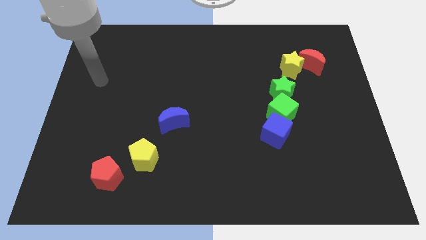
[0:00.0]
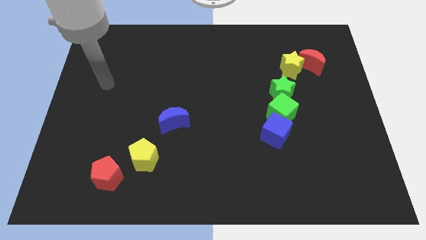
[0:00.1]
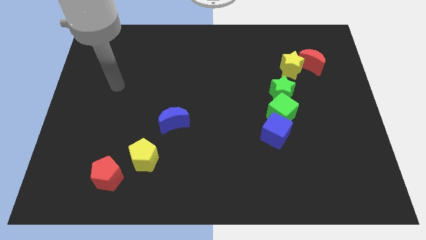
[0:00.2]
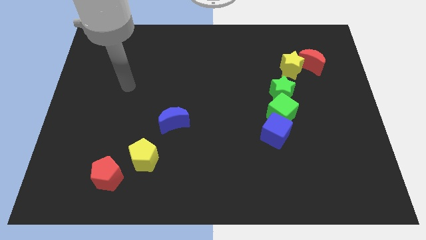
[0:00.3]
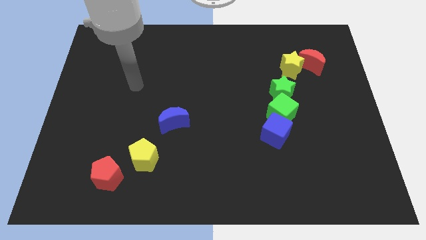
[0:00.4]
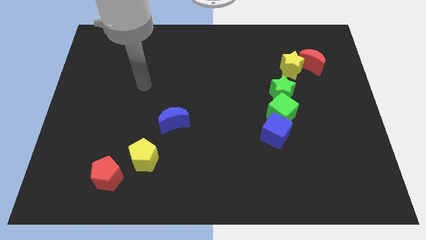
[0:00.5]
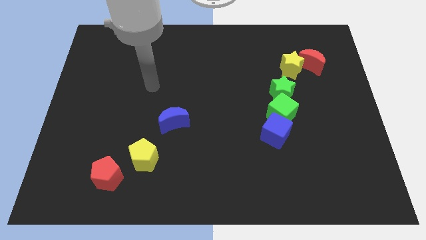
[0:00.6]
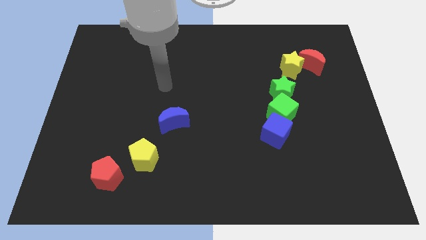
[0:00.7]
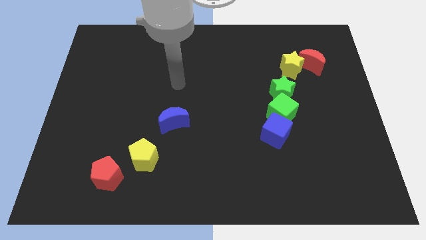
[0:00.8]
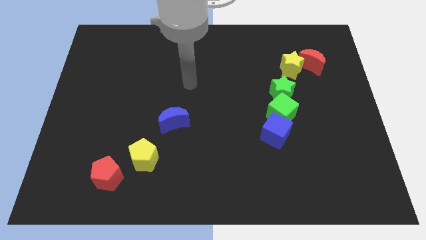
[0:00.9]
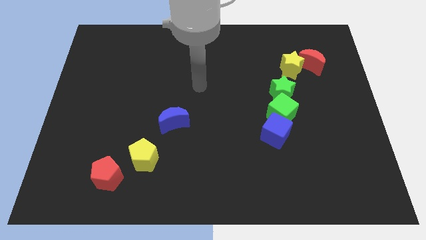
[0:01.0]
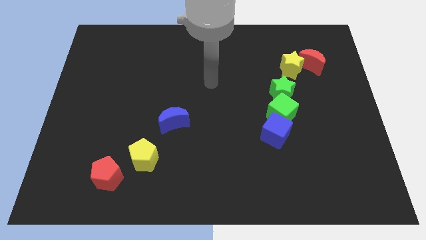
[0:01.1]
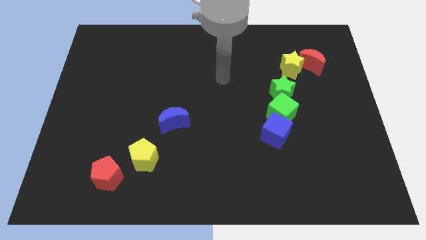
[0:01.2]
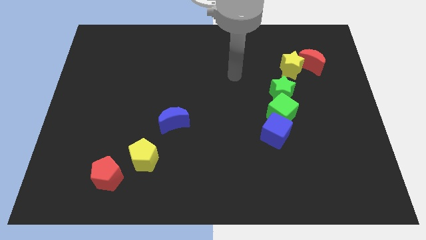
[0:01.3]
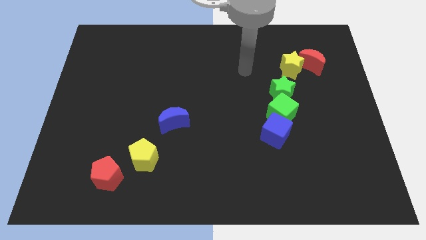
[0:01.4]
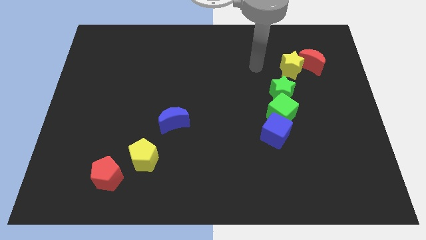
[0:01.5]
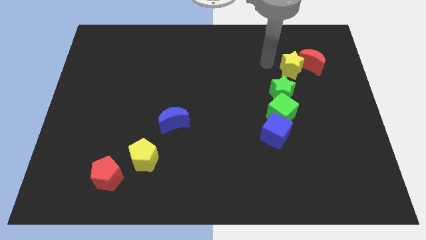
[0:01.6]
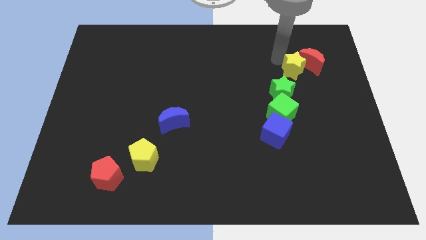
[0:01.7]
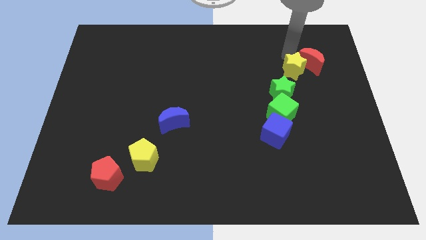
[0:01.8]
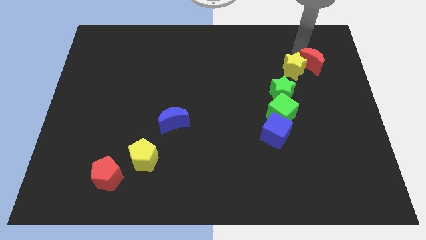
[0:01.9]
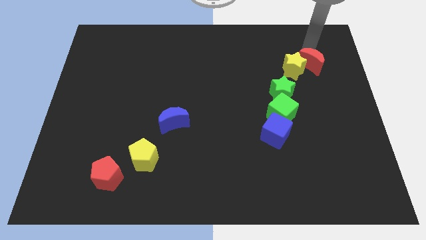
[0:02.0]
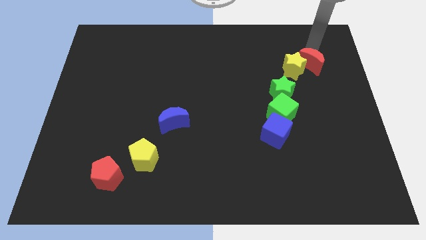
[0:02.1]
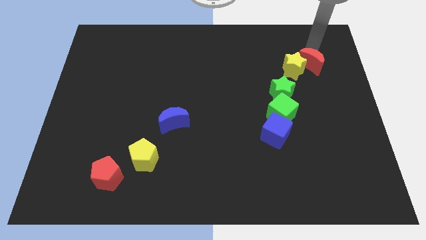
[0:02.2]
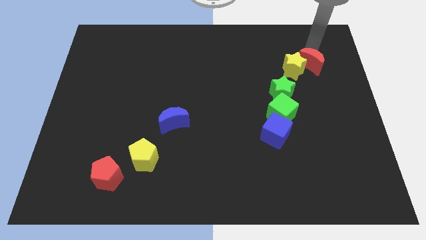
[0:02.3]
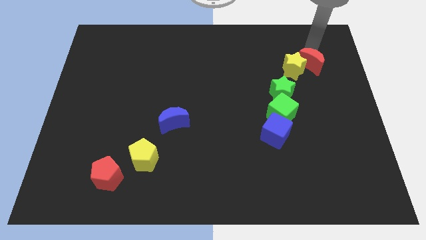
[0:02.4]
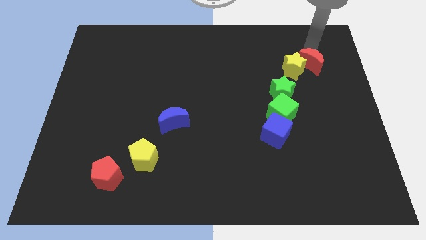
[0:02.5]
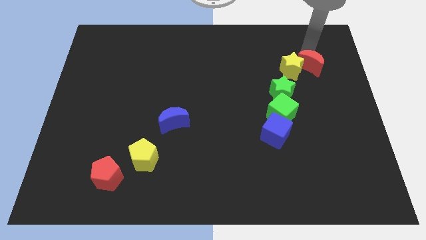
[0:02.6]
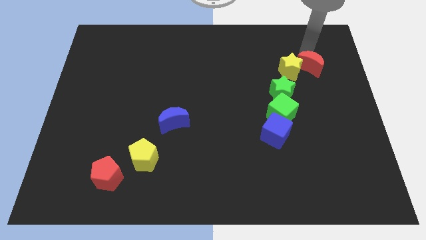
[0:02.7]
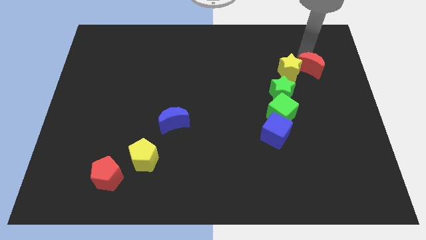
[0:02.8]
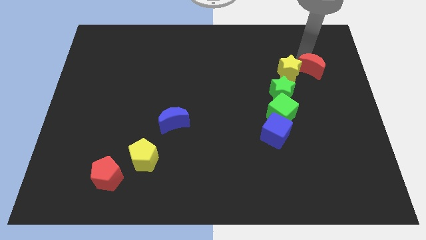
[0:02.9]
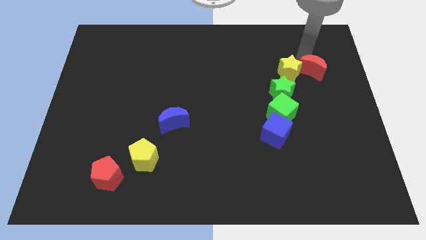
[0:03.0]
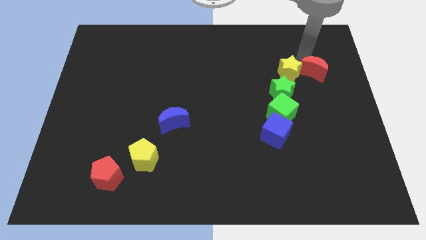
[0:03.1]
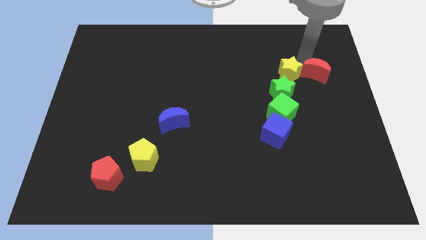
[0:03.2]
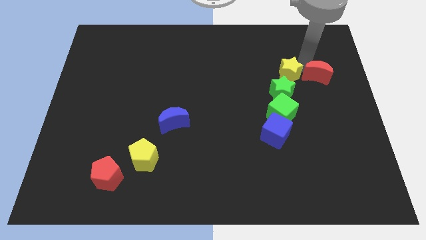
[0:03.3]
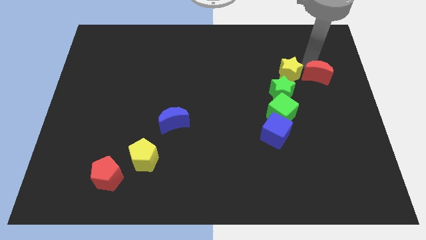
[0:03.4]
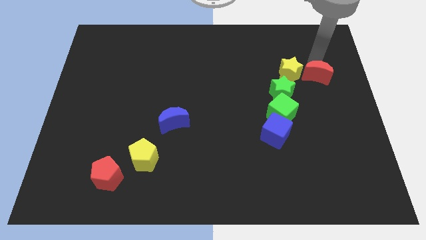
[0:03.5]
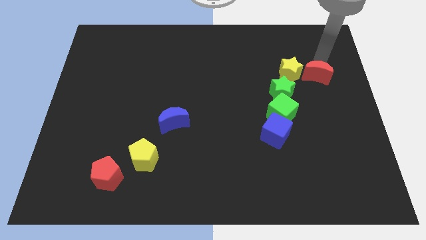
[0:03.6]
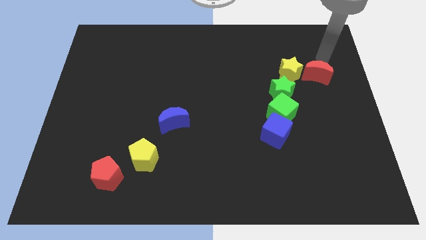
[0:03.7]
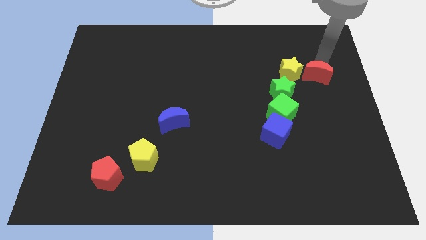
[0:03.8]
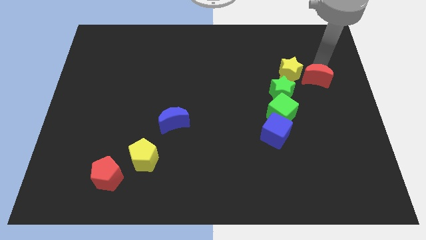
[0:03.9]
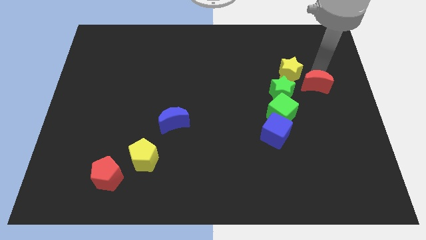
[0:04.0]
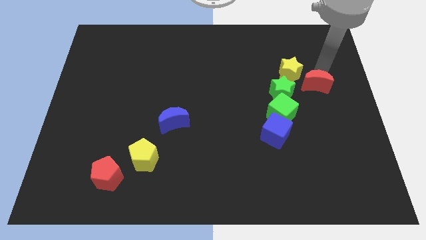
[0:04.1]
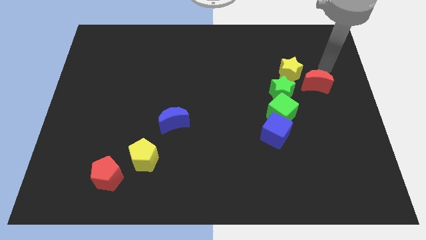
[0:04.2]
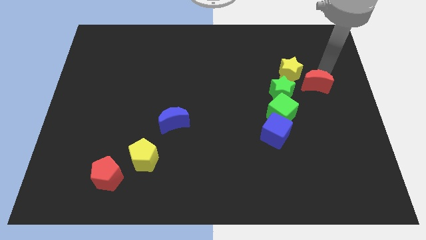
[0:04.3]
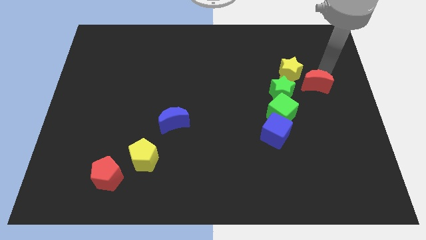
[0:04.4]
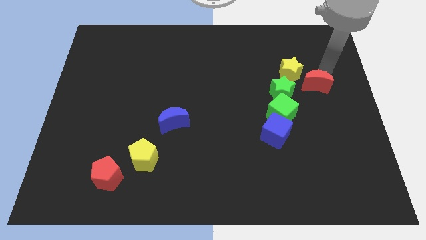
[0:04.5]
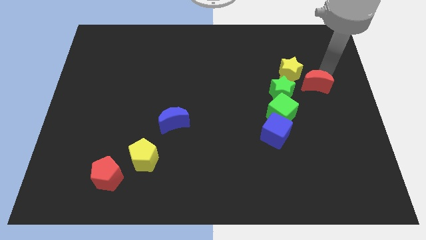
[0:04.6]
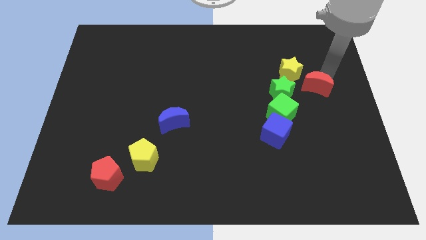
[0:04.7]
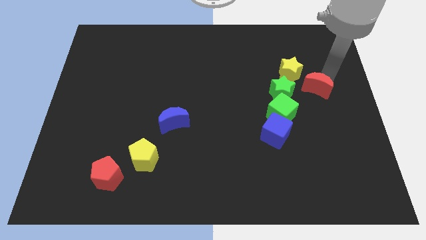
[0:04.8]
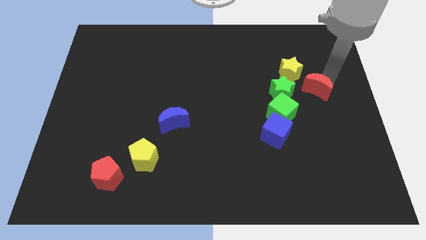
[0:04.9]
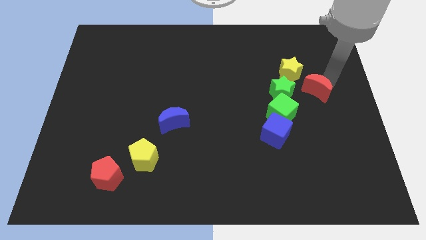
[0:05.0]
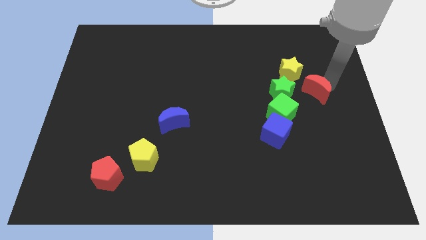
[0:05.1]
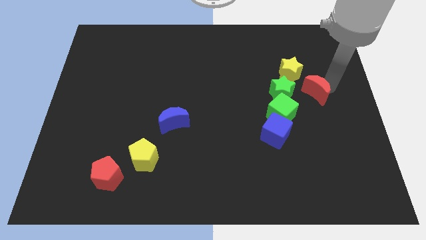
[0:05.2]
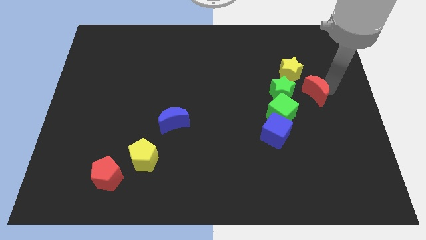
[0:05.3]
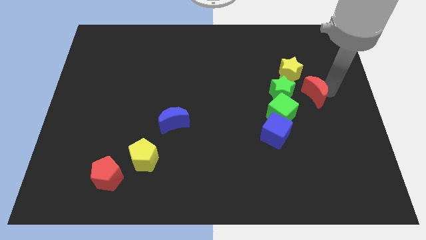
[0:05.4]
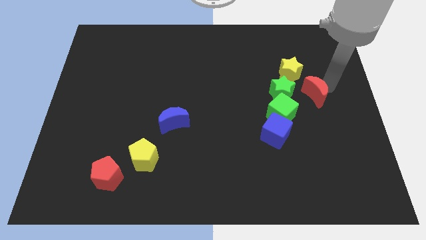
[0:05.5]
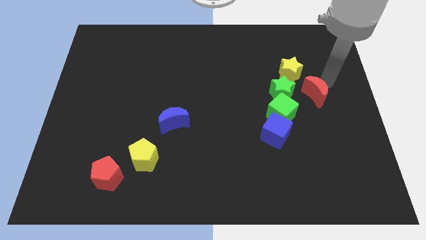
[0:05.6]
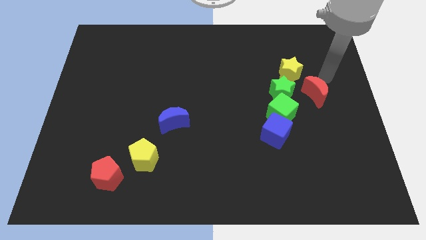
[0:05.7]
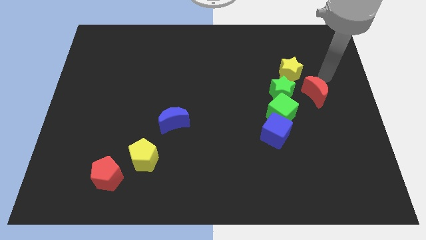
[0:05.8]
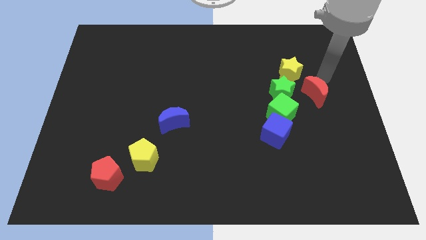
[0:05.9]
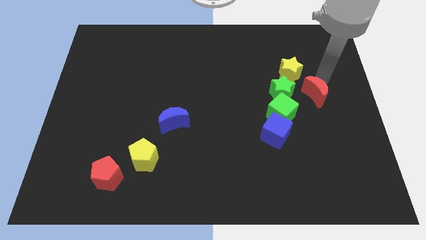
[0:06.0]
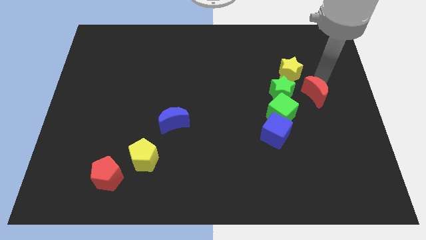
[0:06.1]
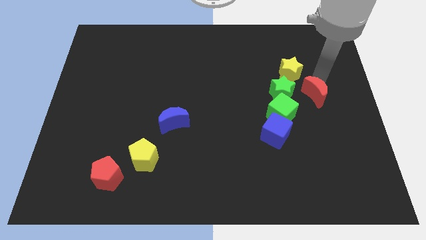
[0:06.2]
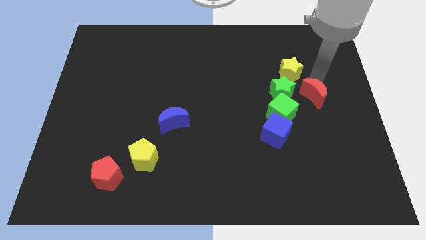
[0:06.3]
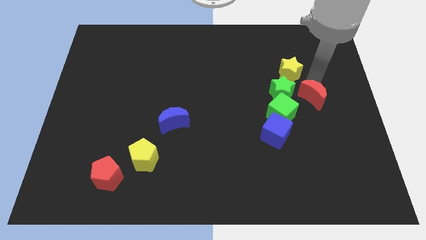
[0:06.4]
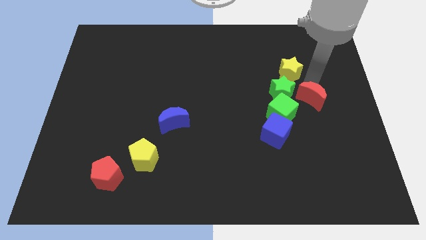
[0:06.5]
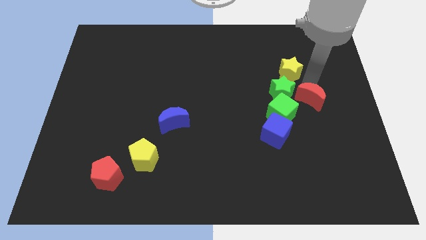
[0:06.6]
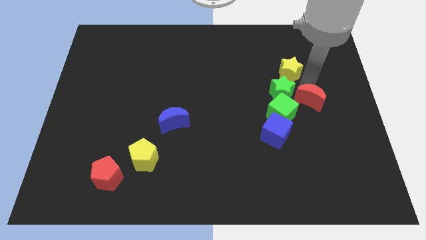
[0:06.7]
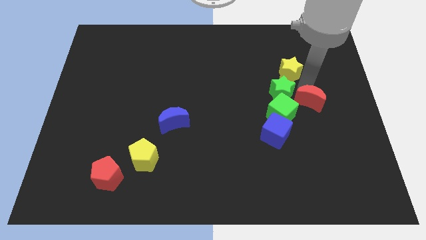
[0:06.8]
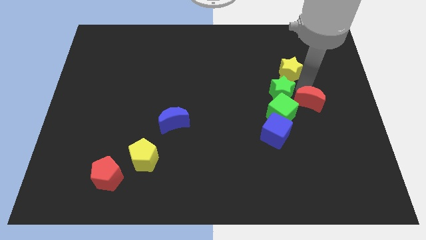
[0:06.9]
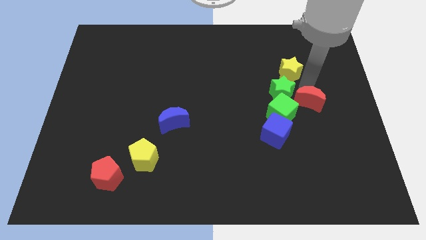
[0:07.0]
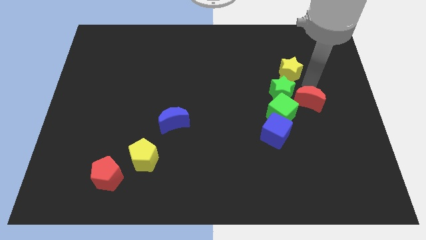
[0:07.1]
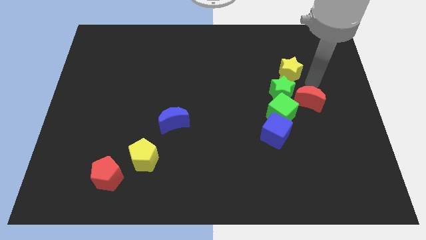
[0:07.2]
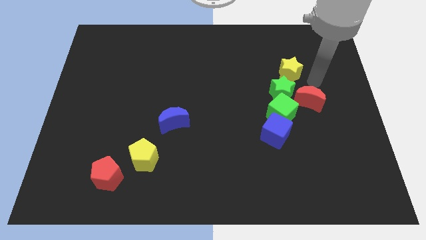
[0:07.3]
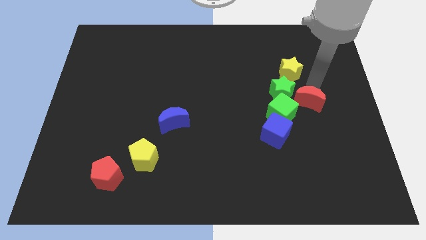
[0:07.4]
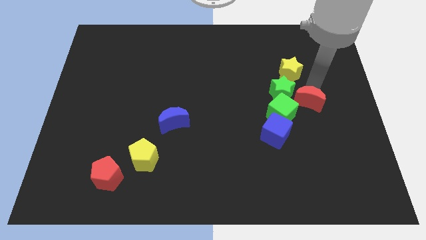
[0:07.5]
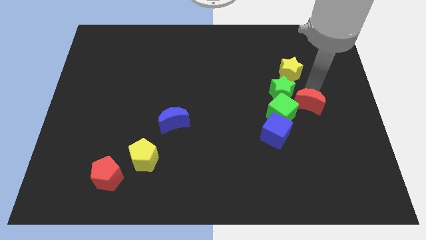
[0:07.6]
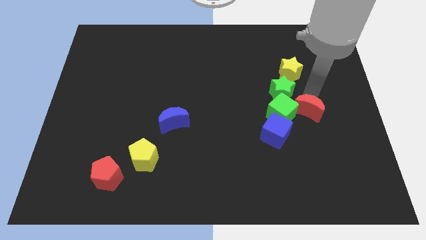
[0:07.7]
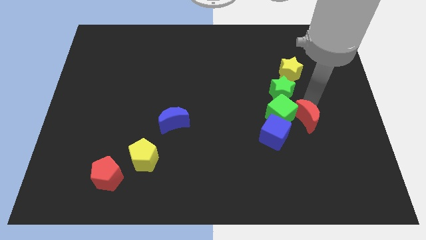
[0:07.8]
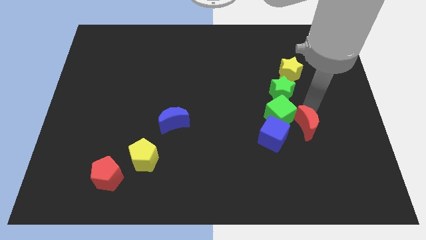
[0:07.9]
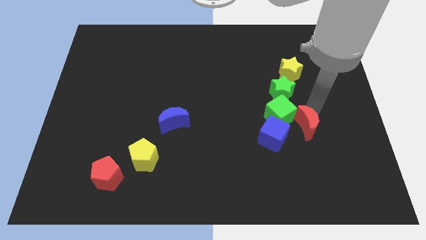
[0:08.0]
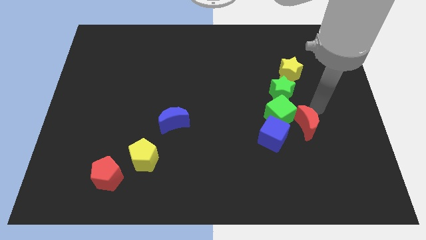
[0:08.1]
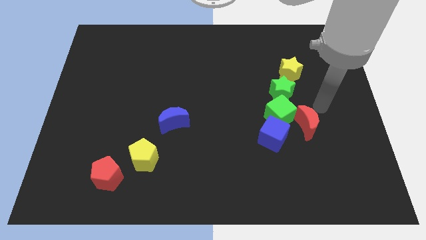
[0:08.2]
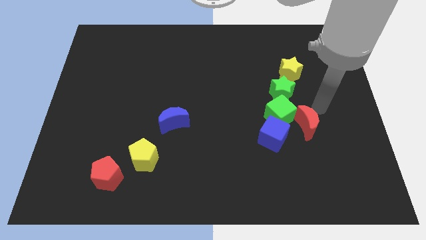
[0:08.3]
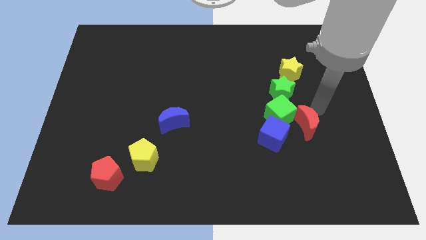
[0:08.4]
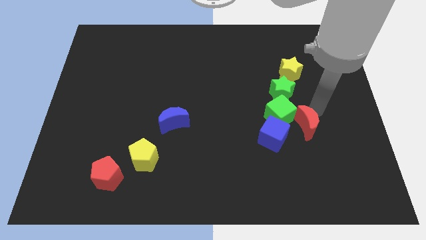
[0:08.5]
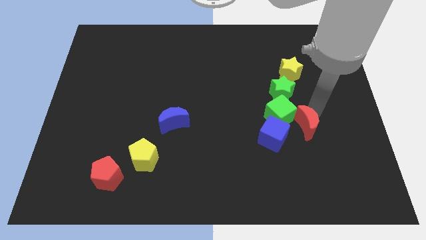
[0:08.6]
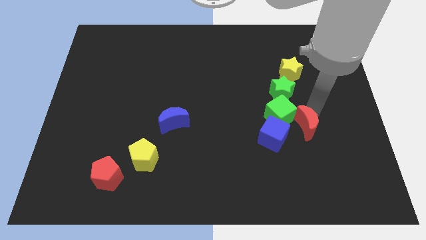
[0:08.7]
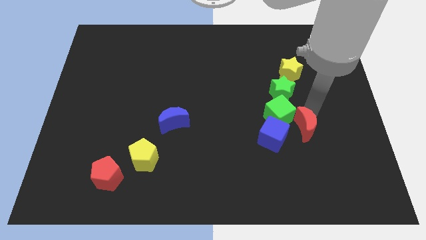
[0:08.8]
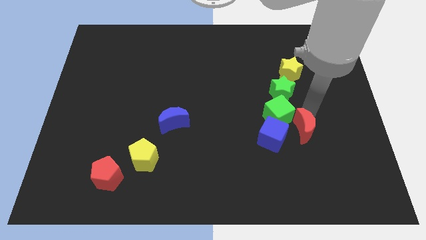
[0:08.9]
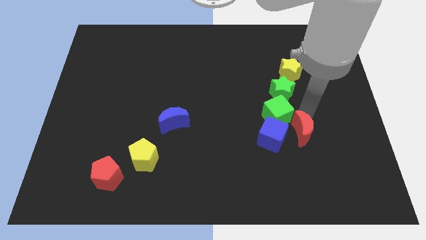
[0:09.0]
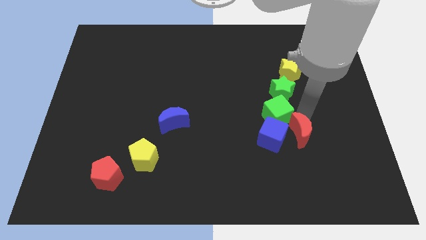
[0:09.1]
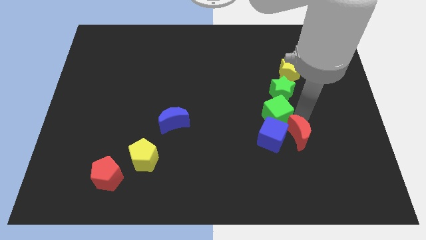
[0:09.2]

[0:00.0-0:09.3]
put the red moon towards the blue cube
